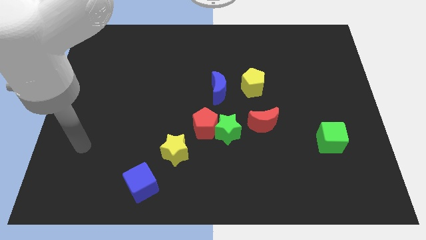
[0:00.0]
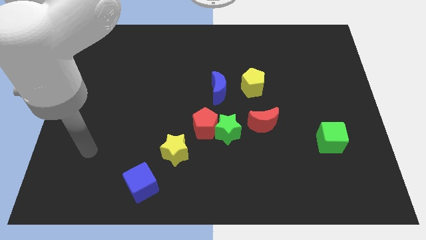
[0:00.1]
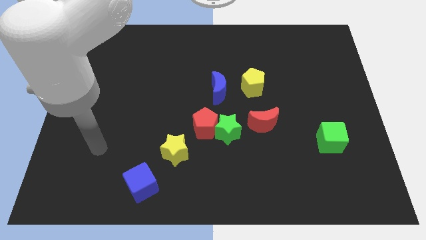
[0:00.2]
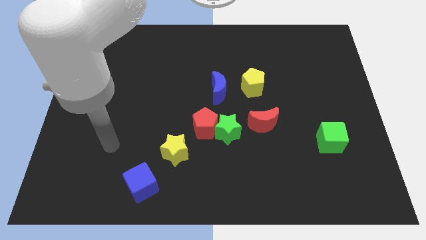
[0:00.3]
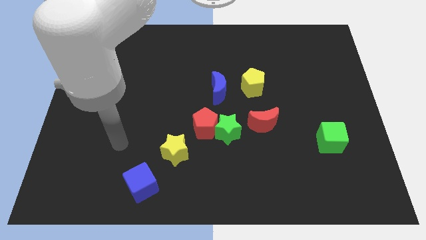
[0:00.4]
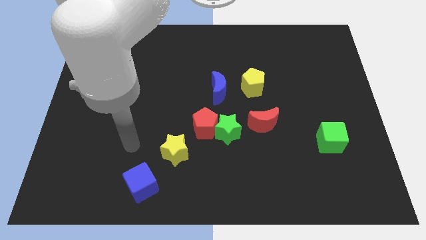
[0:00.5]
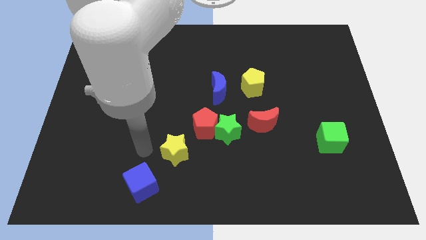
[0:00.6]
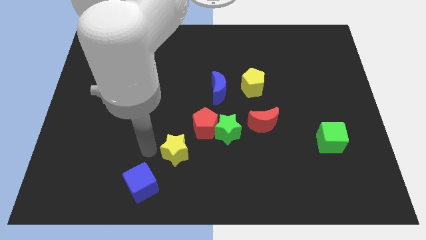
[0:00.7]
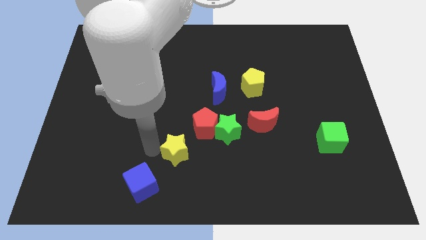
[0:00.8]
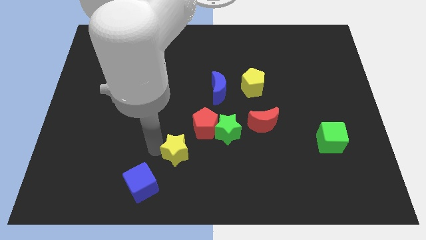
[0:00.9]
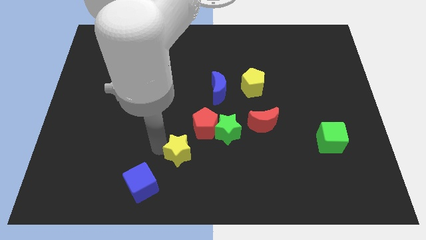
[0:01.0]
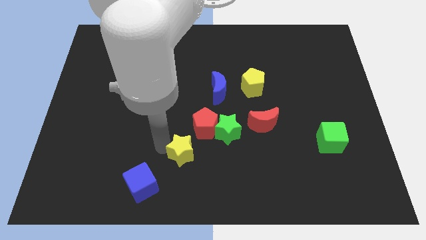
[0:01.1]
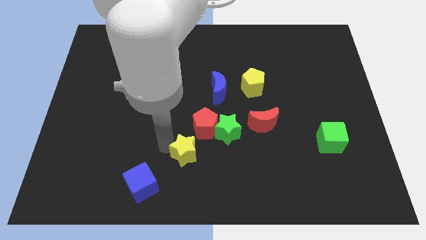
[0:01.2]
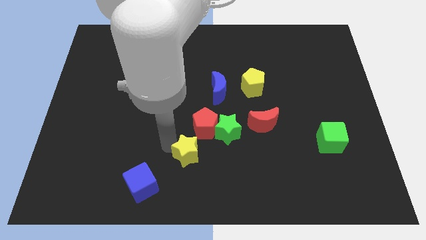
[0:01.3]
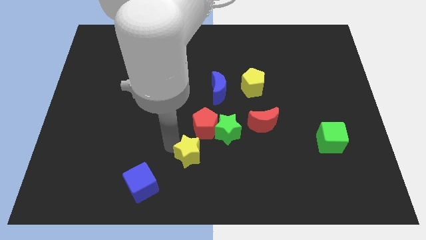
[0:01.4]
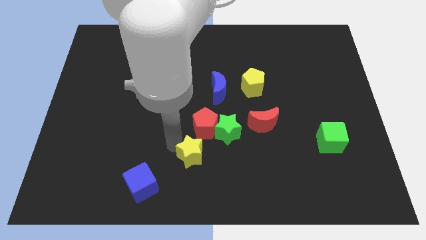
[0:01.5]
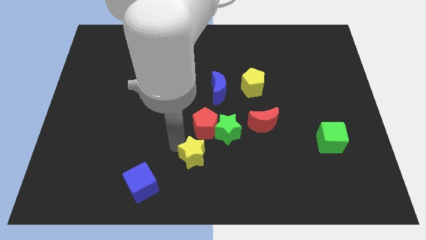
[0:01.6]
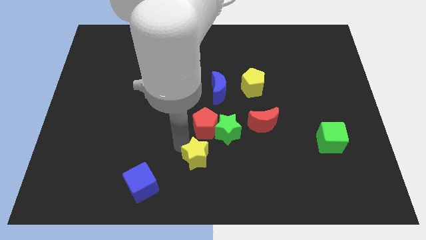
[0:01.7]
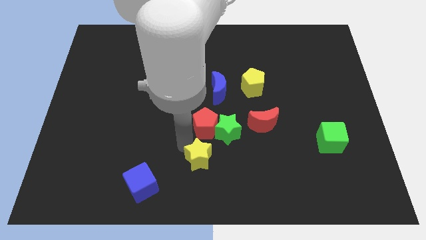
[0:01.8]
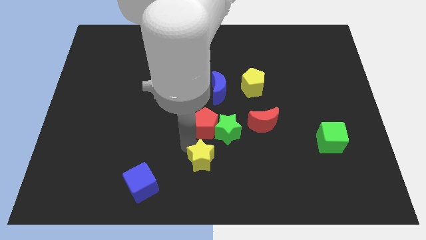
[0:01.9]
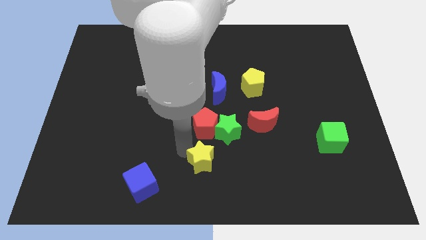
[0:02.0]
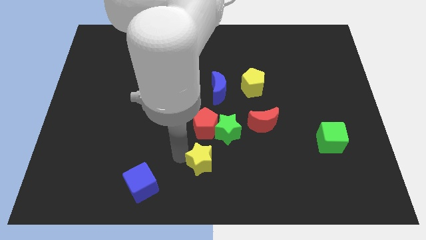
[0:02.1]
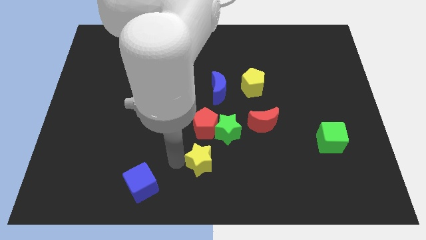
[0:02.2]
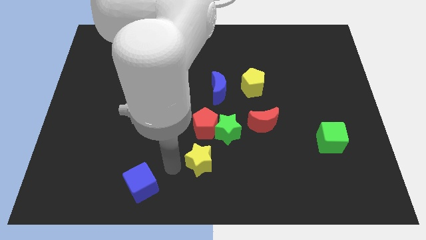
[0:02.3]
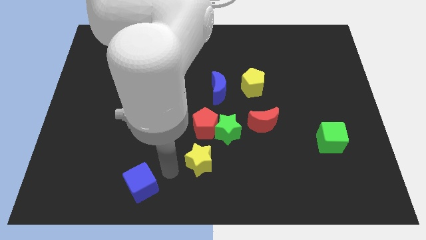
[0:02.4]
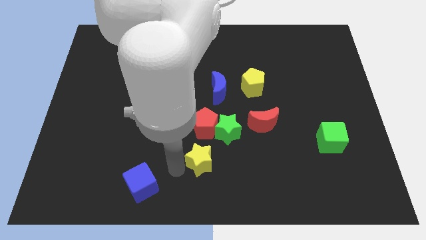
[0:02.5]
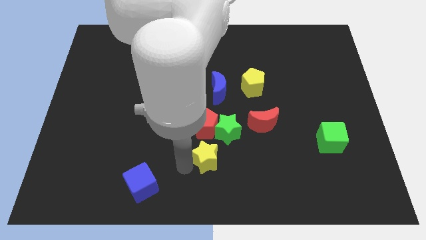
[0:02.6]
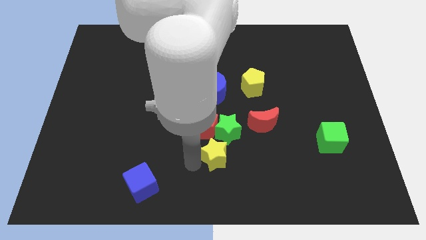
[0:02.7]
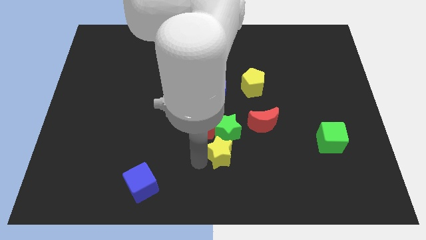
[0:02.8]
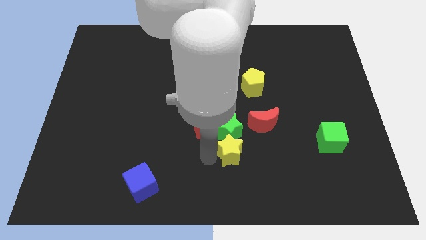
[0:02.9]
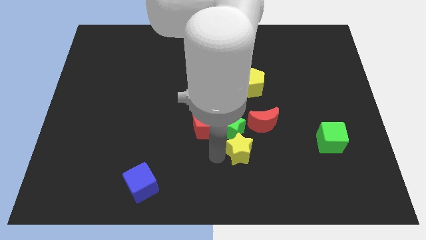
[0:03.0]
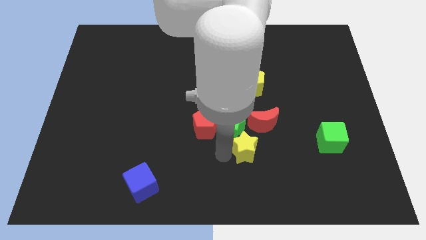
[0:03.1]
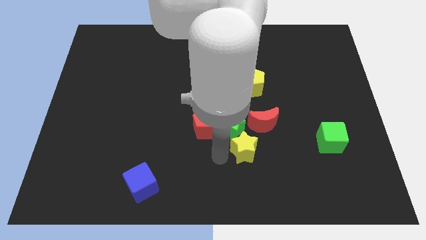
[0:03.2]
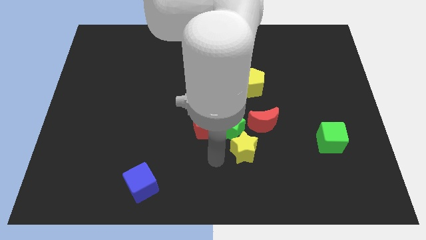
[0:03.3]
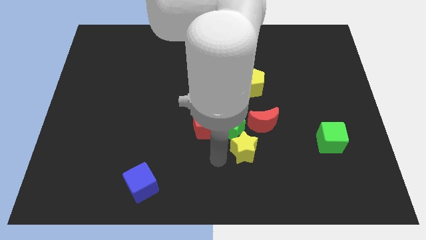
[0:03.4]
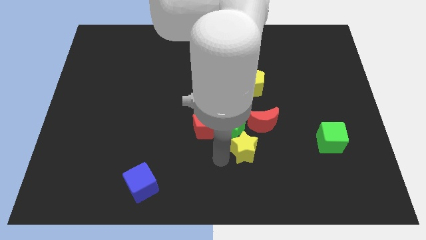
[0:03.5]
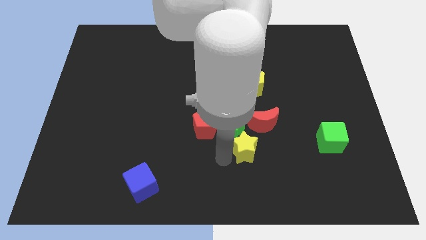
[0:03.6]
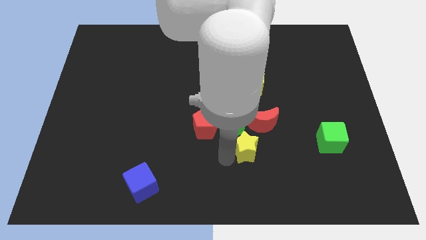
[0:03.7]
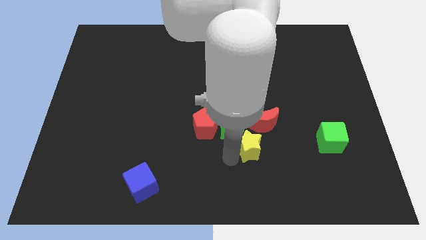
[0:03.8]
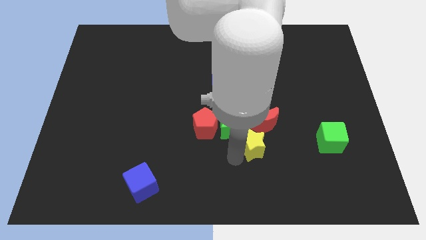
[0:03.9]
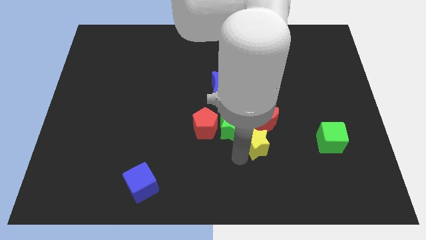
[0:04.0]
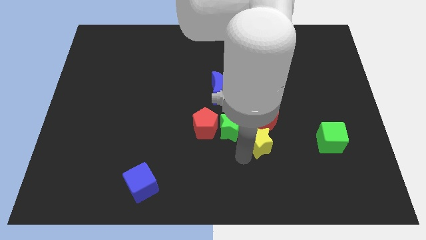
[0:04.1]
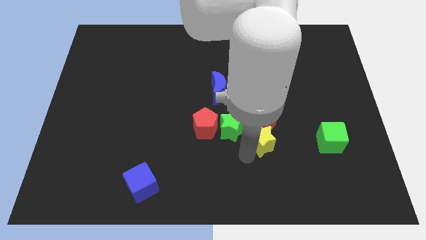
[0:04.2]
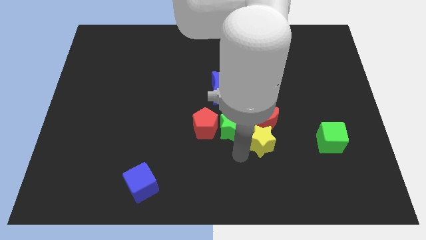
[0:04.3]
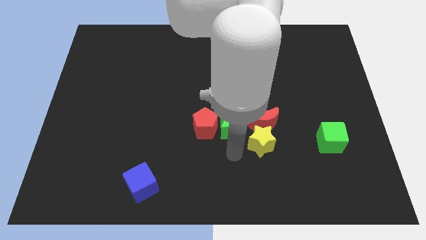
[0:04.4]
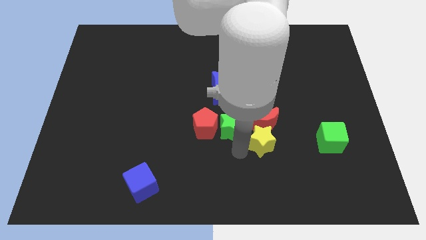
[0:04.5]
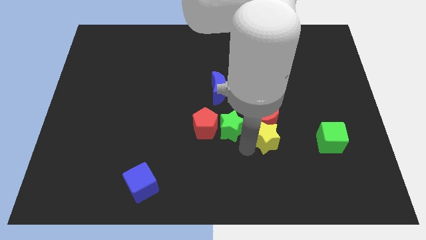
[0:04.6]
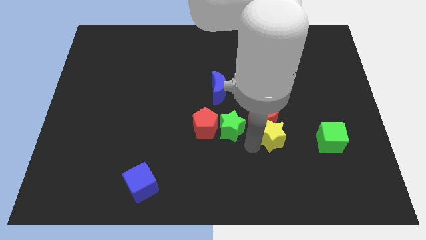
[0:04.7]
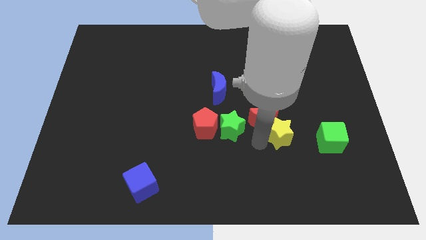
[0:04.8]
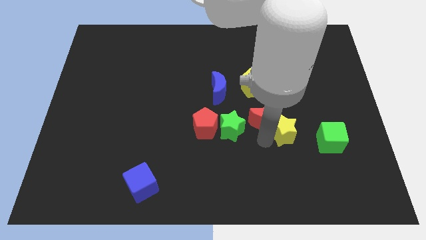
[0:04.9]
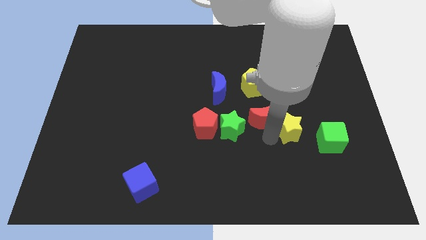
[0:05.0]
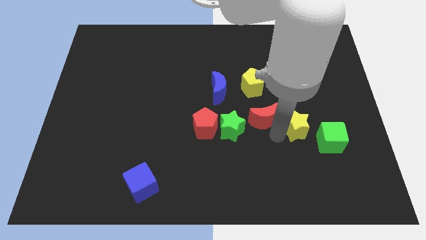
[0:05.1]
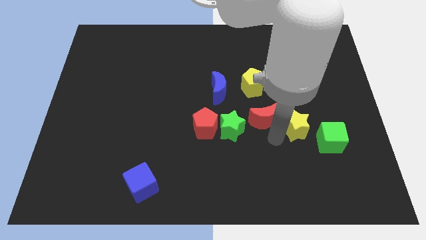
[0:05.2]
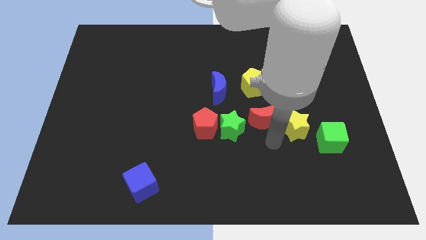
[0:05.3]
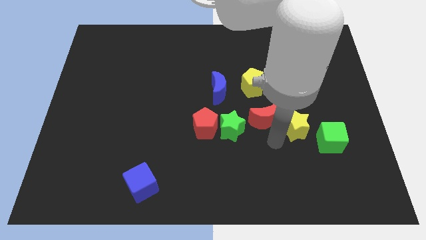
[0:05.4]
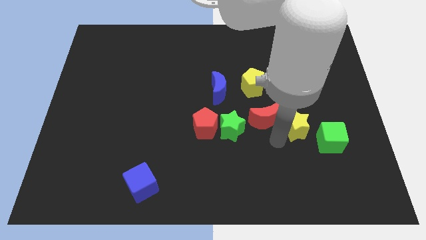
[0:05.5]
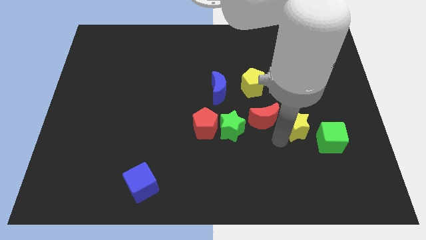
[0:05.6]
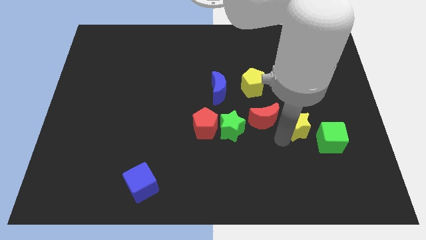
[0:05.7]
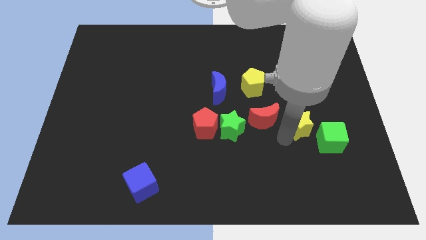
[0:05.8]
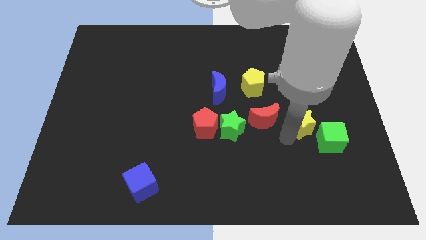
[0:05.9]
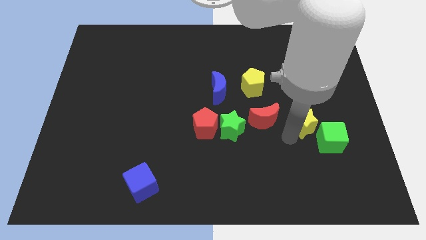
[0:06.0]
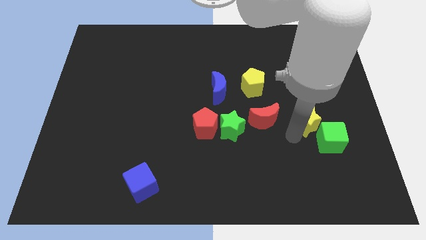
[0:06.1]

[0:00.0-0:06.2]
push the yellow star above the green cube

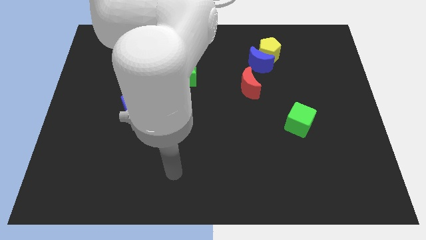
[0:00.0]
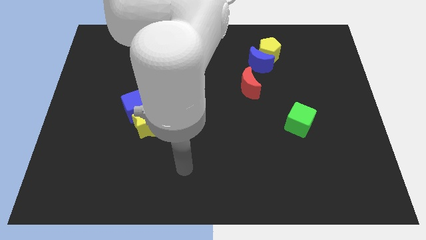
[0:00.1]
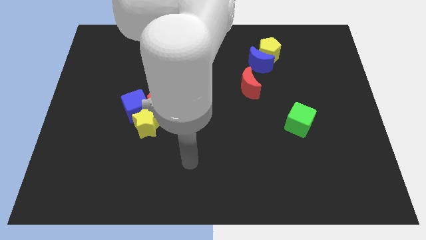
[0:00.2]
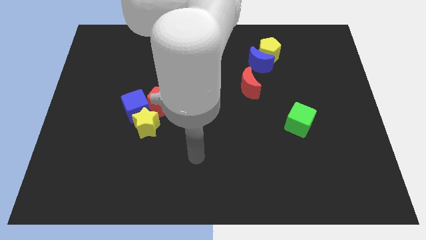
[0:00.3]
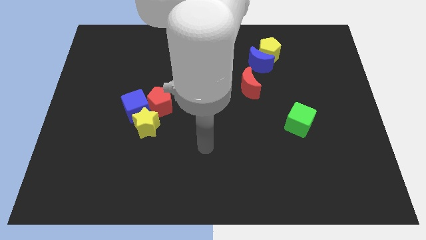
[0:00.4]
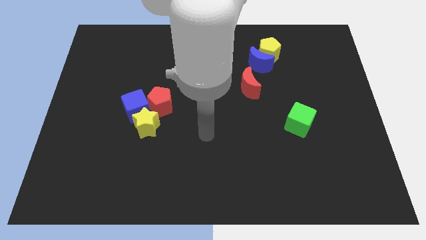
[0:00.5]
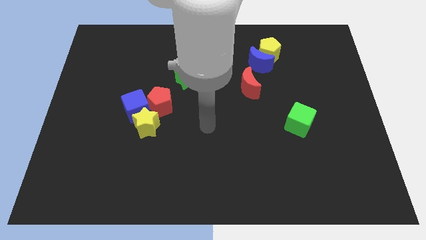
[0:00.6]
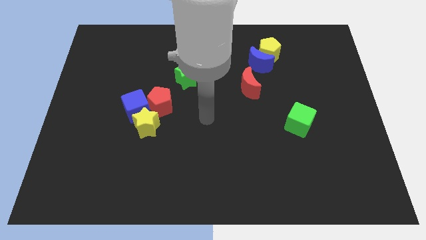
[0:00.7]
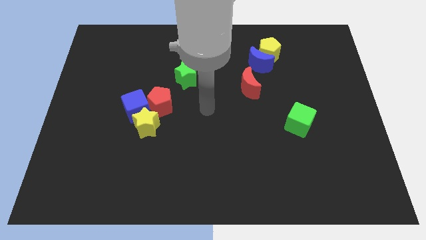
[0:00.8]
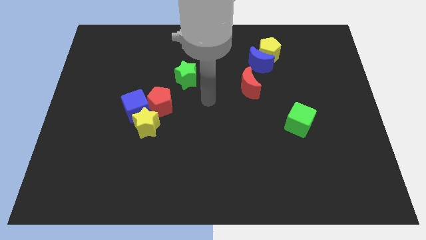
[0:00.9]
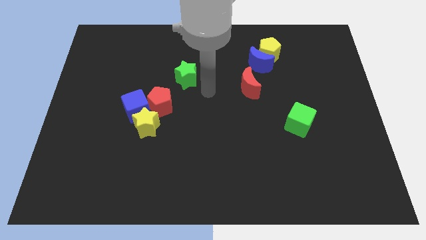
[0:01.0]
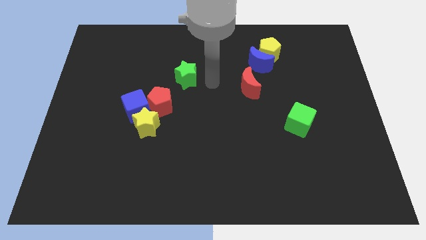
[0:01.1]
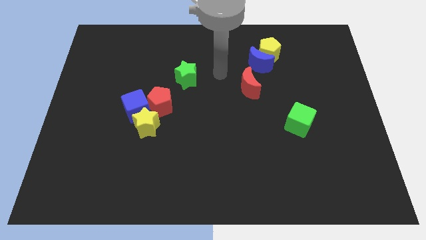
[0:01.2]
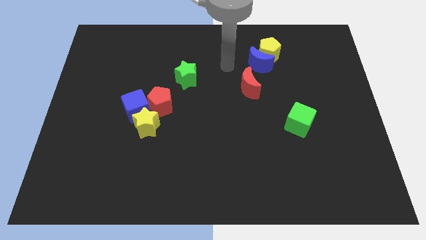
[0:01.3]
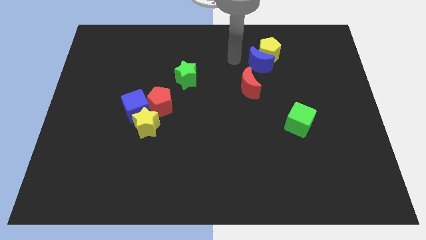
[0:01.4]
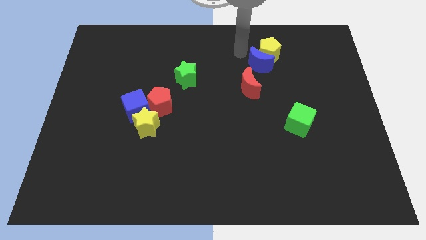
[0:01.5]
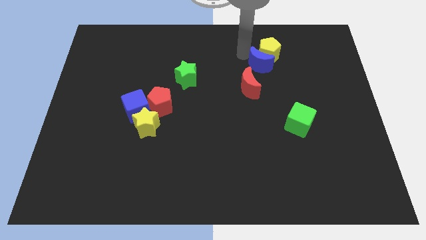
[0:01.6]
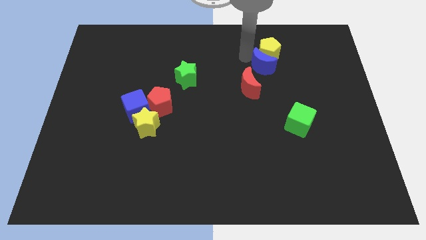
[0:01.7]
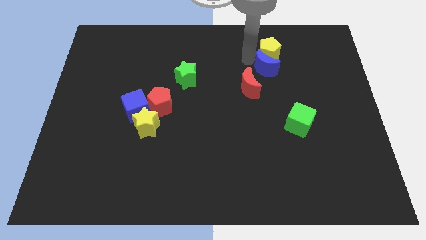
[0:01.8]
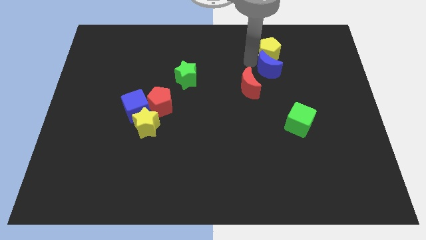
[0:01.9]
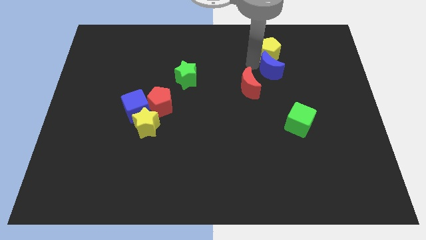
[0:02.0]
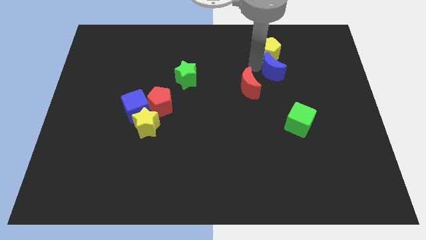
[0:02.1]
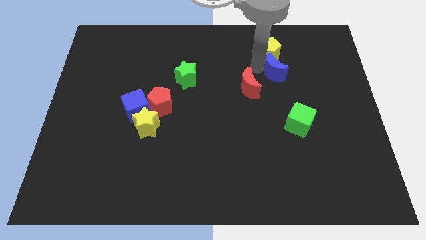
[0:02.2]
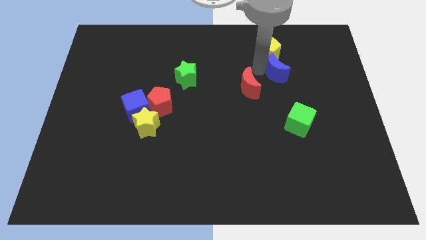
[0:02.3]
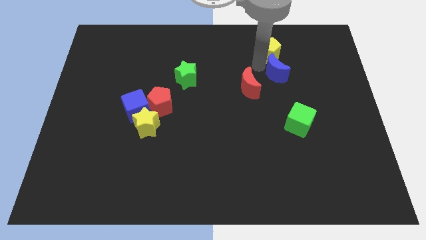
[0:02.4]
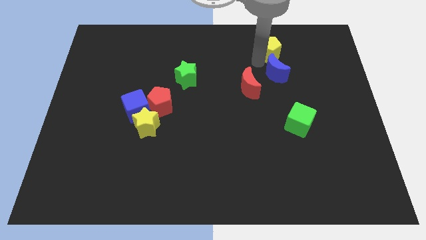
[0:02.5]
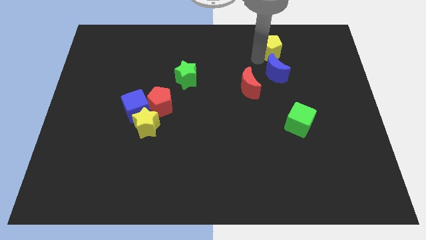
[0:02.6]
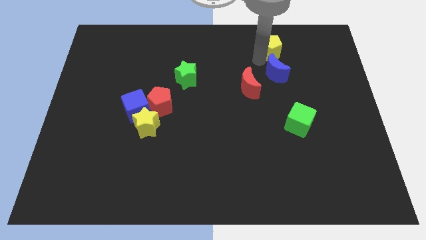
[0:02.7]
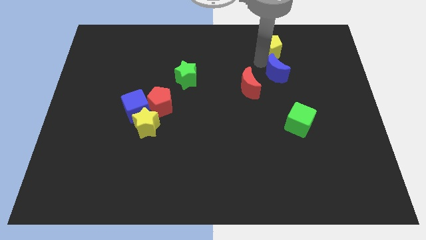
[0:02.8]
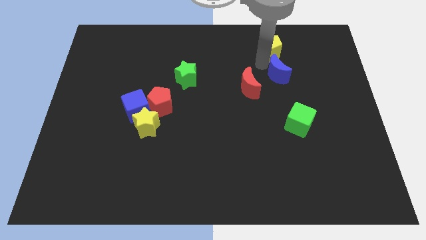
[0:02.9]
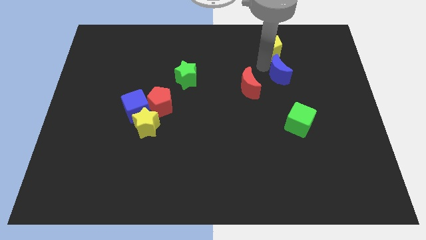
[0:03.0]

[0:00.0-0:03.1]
move the blue moon to the top of the green cube
